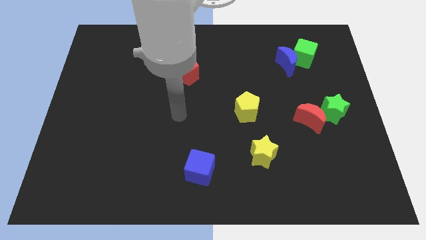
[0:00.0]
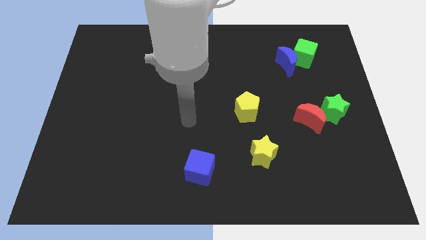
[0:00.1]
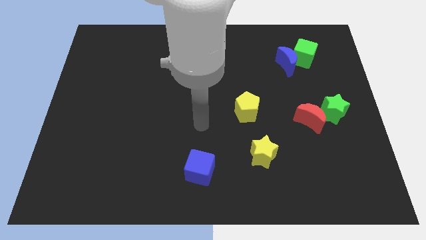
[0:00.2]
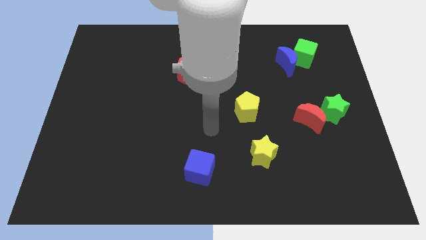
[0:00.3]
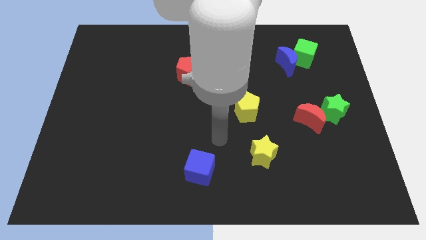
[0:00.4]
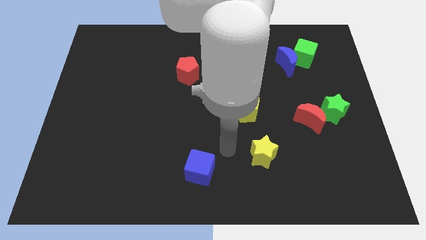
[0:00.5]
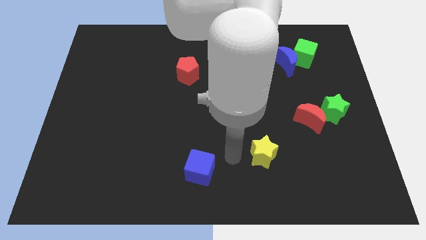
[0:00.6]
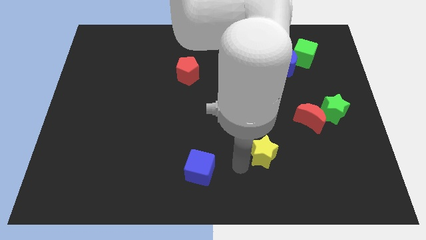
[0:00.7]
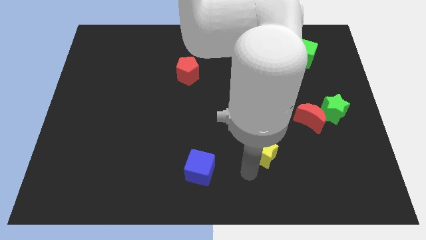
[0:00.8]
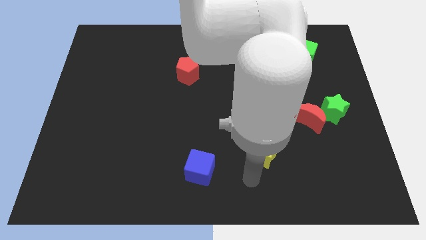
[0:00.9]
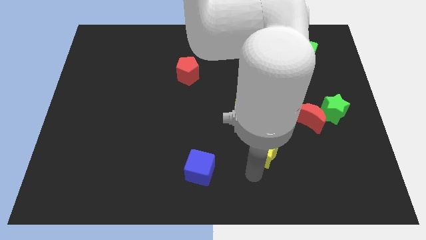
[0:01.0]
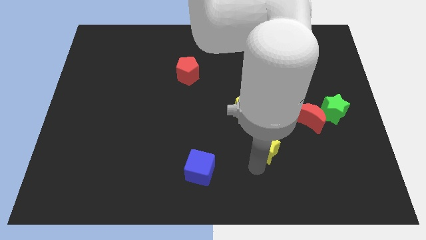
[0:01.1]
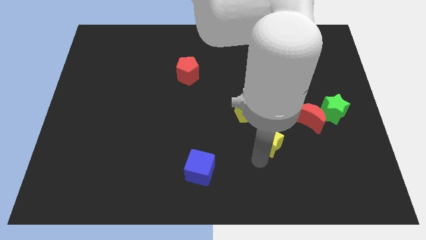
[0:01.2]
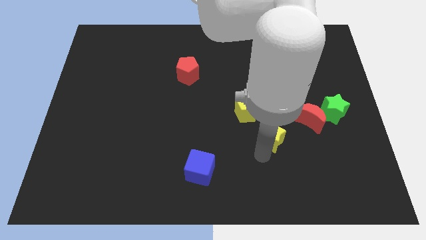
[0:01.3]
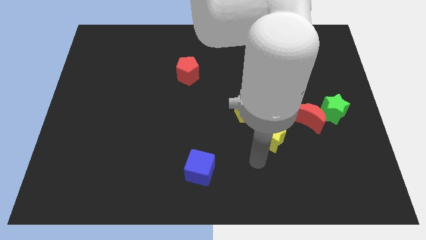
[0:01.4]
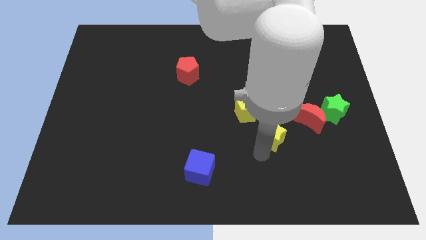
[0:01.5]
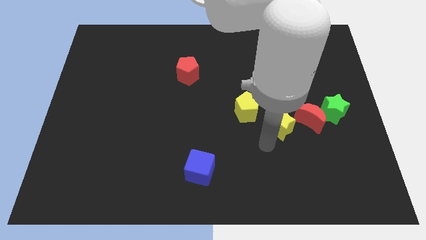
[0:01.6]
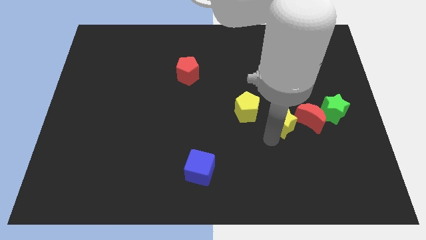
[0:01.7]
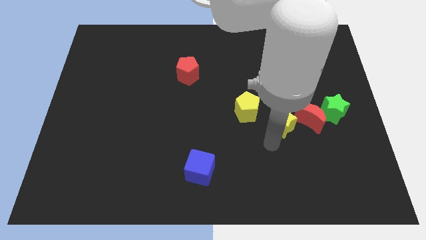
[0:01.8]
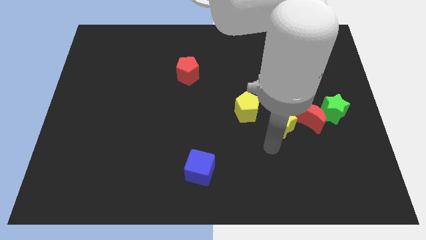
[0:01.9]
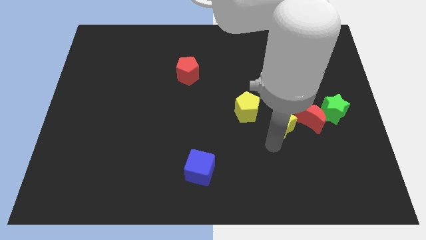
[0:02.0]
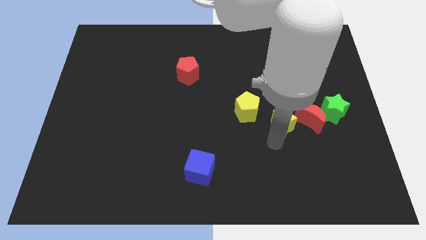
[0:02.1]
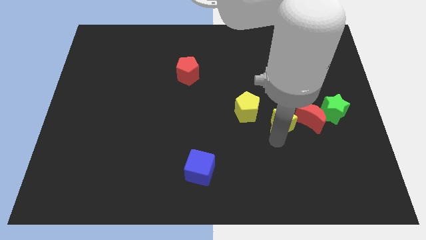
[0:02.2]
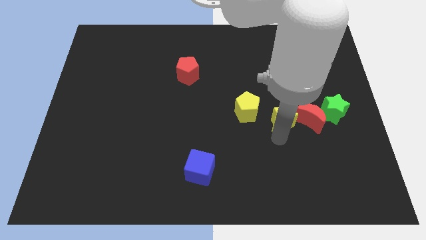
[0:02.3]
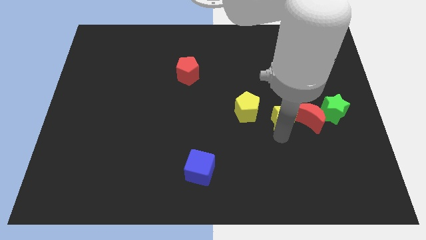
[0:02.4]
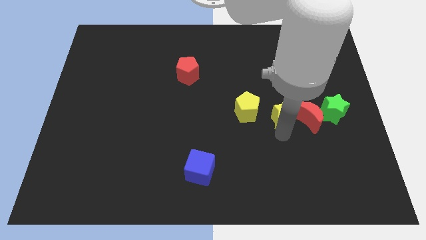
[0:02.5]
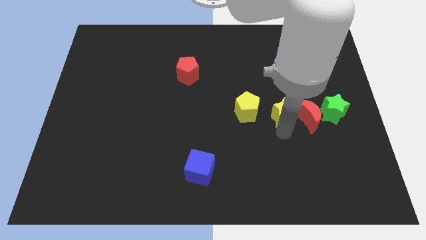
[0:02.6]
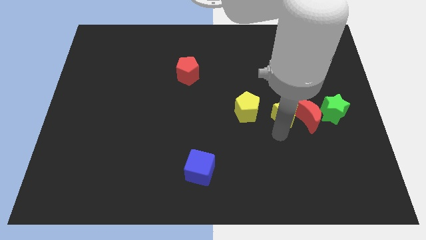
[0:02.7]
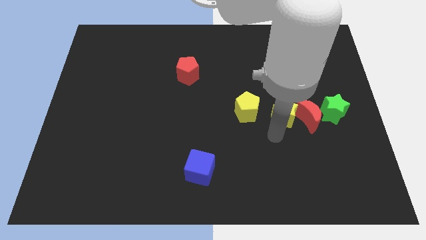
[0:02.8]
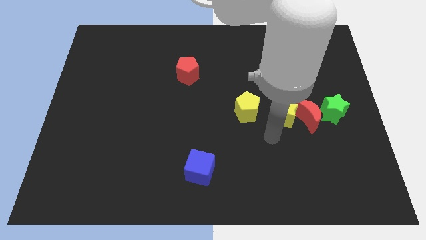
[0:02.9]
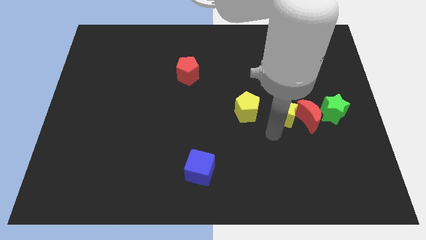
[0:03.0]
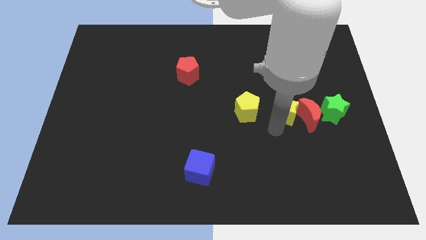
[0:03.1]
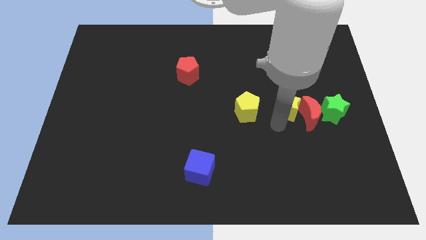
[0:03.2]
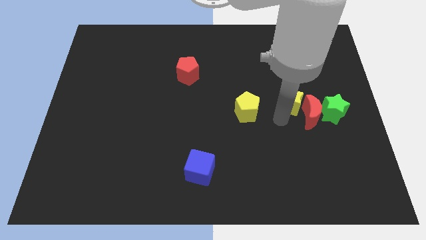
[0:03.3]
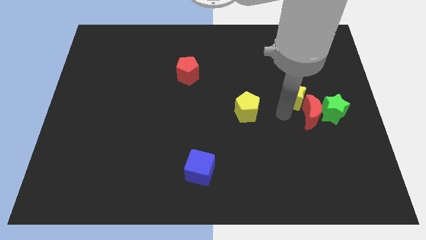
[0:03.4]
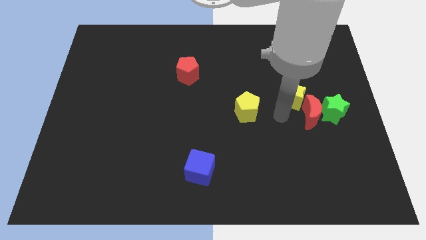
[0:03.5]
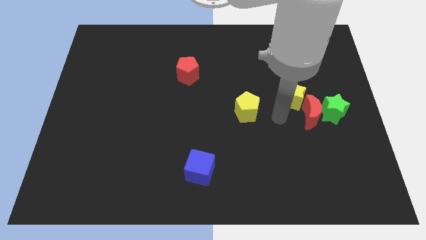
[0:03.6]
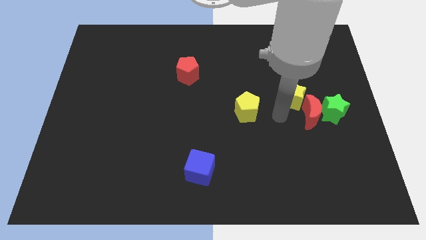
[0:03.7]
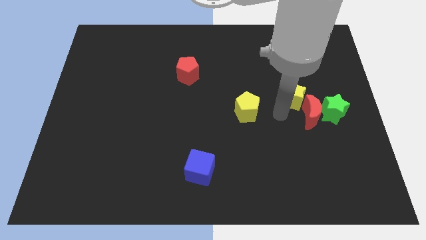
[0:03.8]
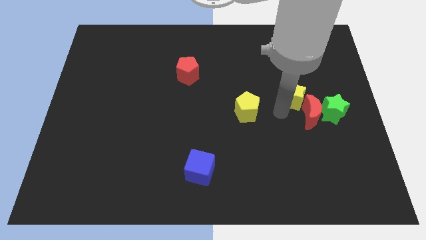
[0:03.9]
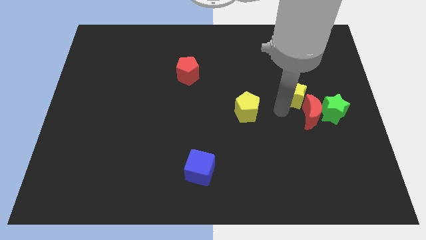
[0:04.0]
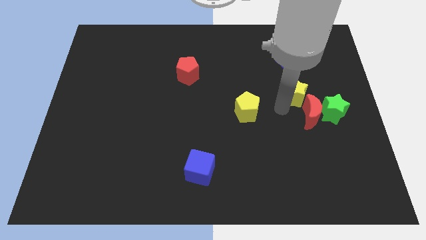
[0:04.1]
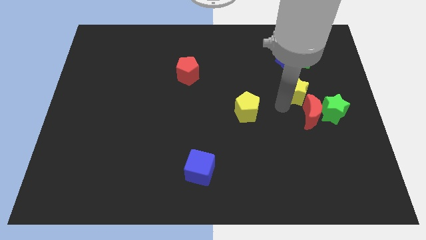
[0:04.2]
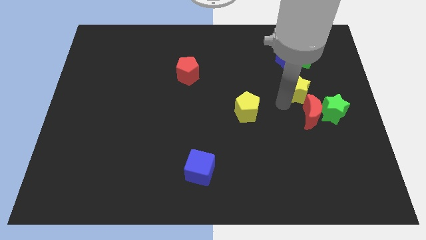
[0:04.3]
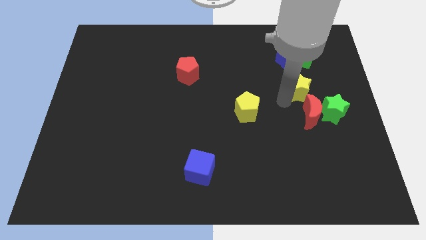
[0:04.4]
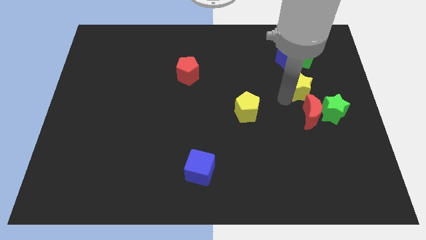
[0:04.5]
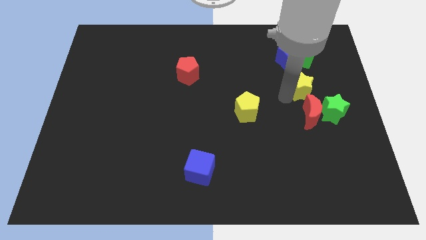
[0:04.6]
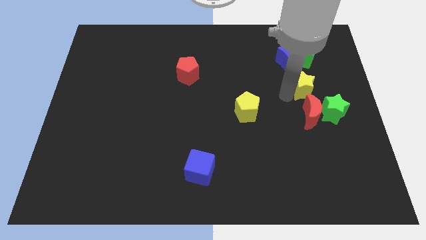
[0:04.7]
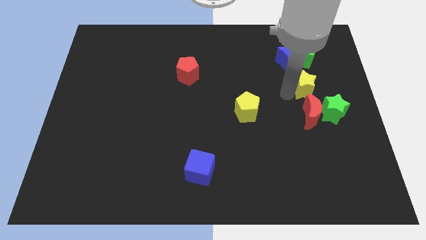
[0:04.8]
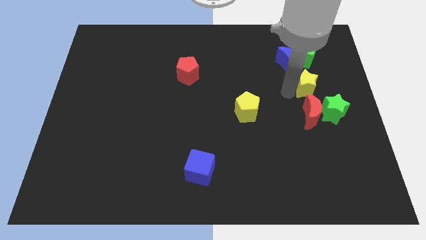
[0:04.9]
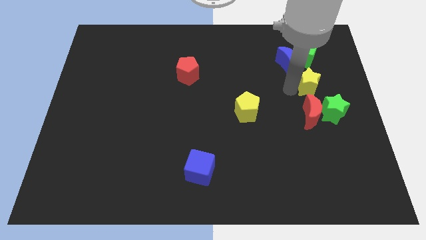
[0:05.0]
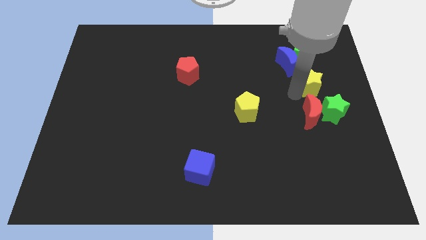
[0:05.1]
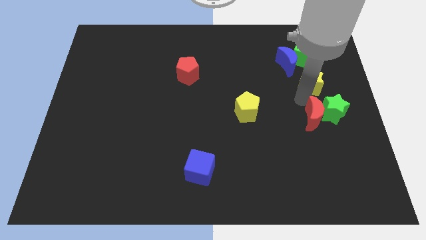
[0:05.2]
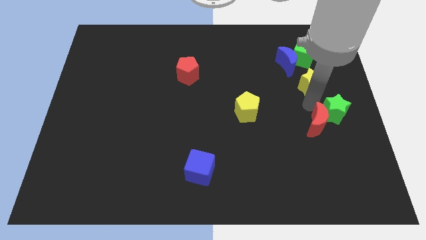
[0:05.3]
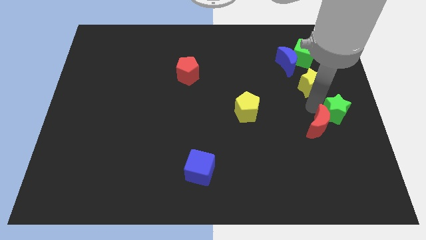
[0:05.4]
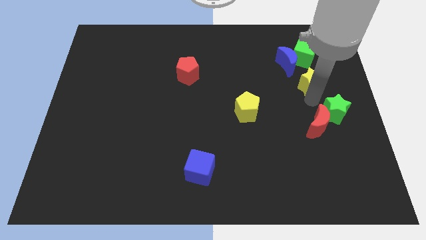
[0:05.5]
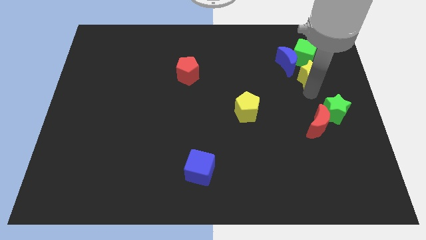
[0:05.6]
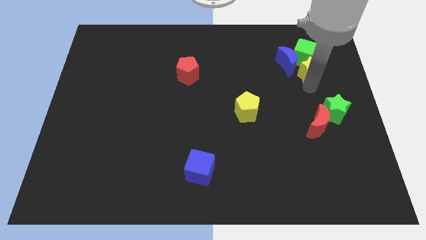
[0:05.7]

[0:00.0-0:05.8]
slide the yellow star close to the green cube

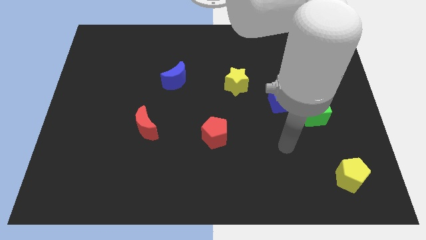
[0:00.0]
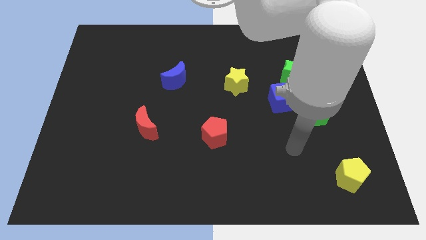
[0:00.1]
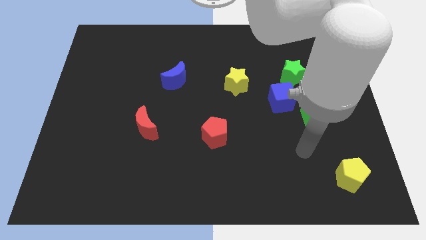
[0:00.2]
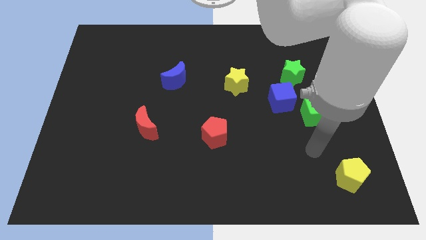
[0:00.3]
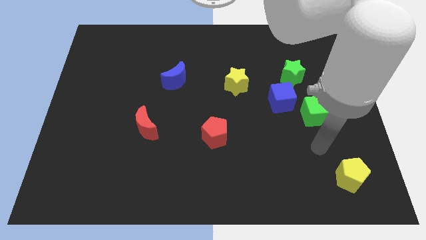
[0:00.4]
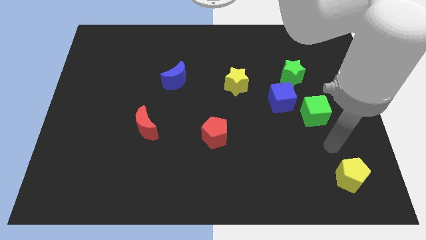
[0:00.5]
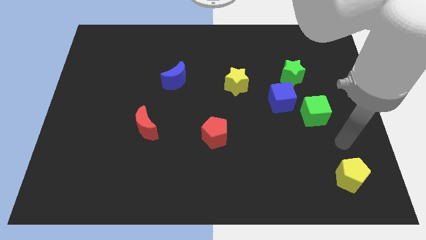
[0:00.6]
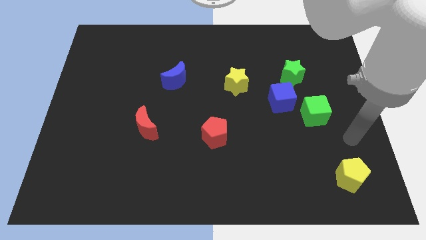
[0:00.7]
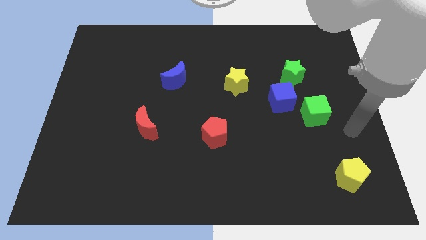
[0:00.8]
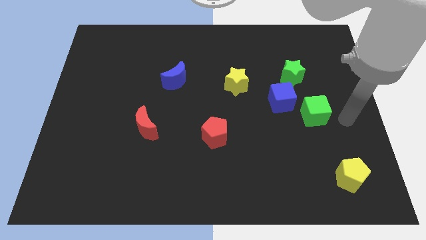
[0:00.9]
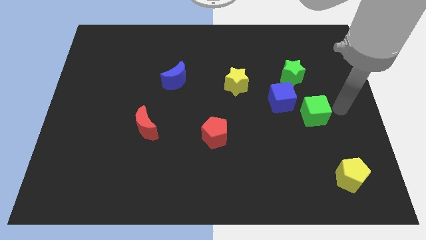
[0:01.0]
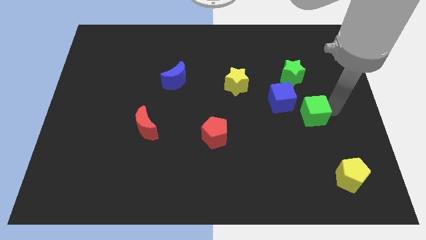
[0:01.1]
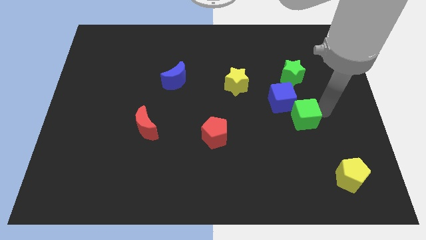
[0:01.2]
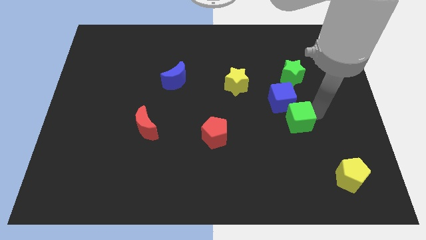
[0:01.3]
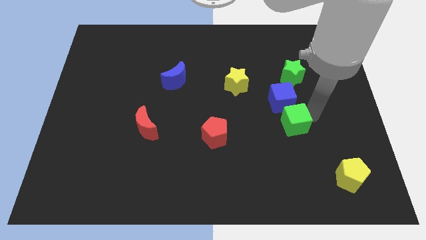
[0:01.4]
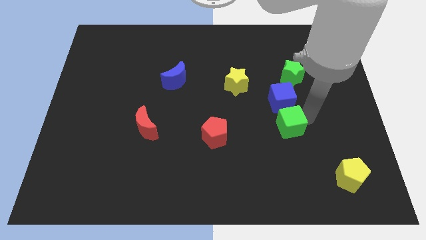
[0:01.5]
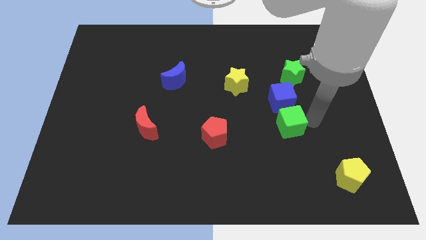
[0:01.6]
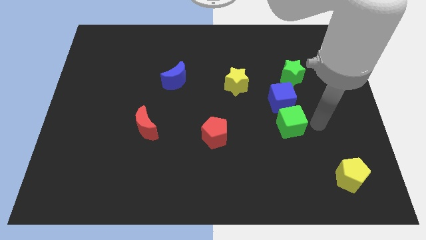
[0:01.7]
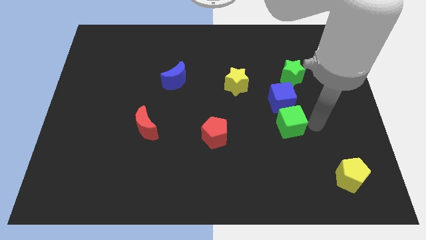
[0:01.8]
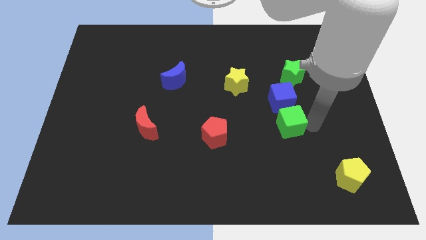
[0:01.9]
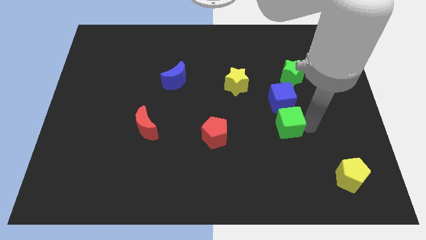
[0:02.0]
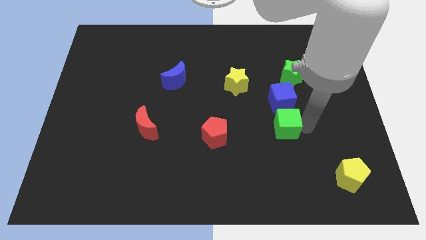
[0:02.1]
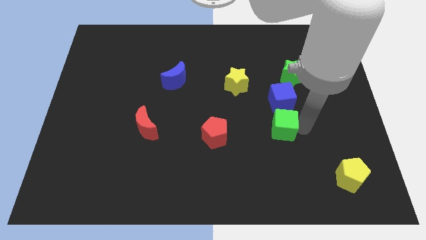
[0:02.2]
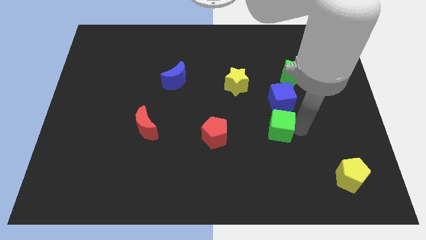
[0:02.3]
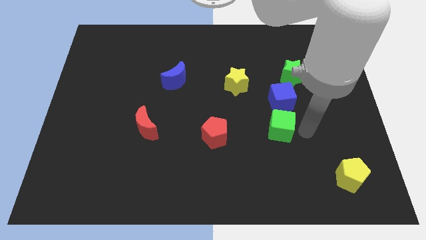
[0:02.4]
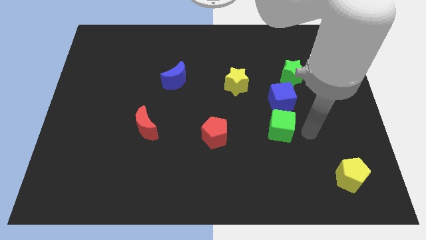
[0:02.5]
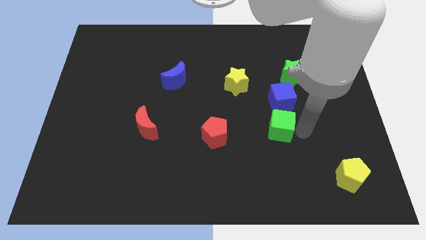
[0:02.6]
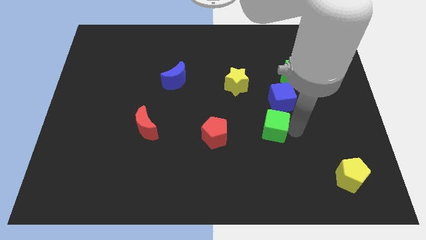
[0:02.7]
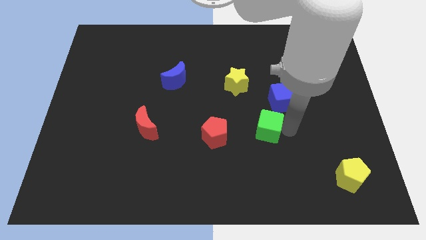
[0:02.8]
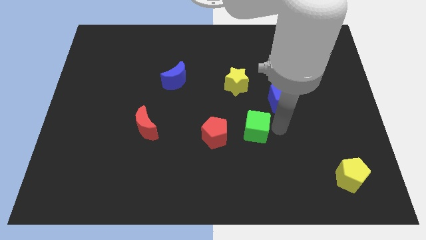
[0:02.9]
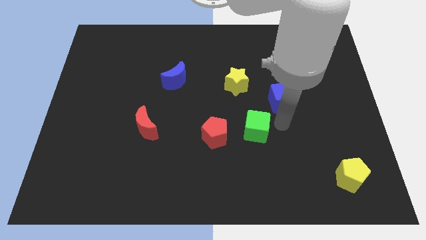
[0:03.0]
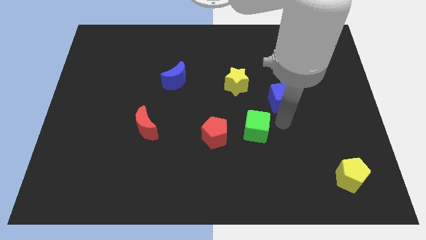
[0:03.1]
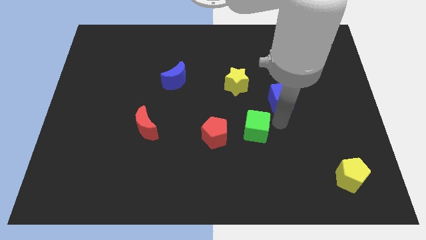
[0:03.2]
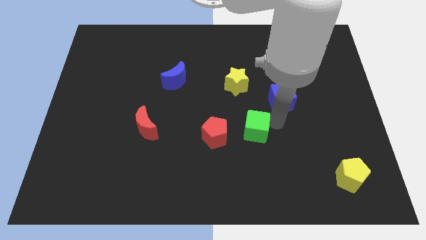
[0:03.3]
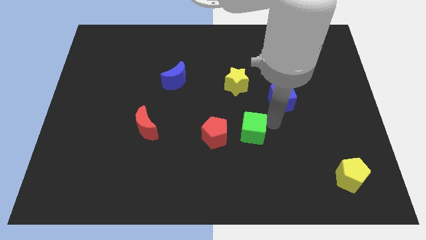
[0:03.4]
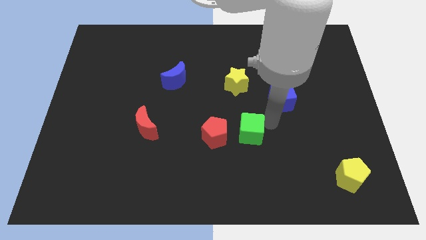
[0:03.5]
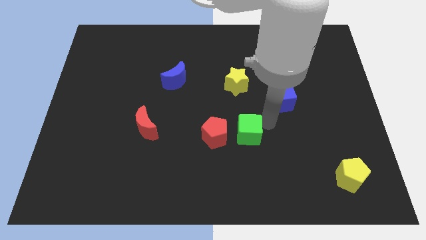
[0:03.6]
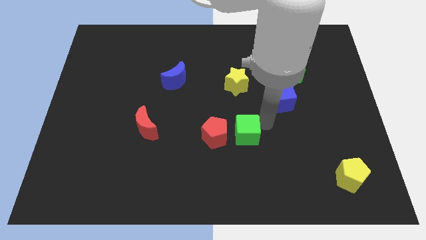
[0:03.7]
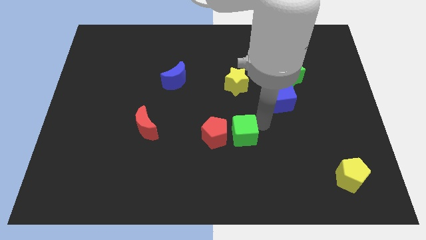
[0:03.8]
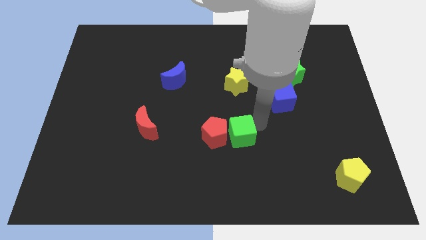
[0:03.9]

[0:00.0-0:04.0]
move the green cube to the red pentagon
